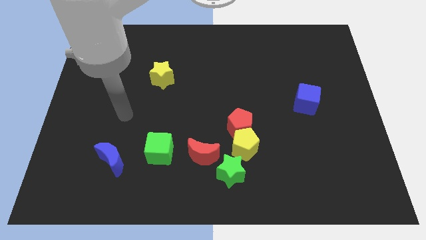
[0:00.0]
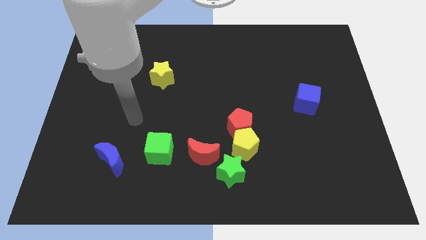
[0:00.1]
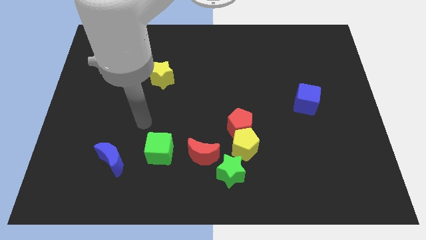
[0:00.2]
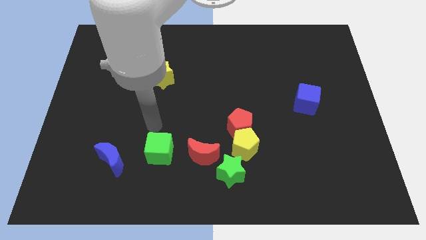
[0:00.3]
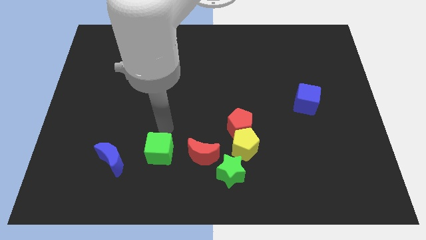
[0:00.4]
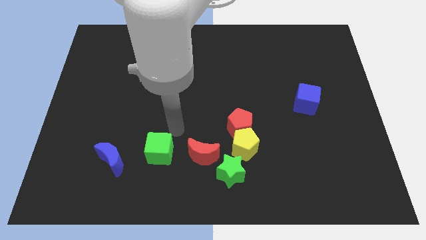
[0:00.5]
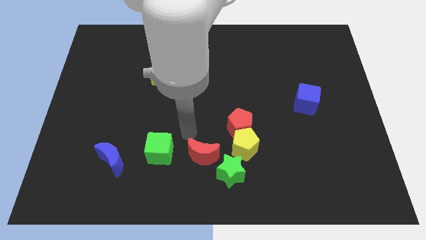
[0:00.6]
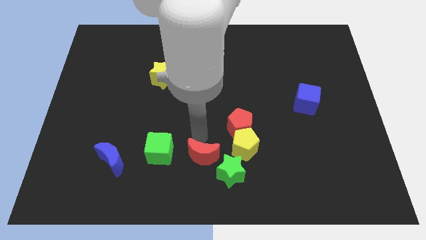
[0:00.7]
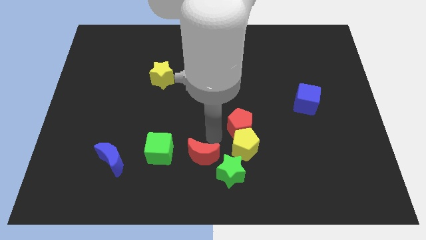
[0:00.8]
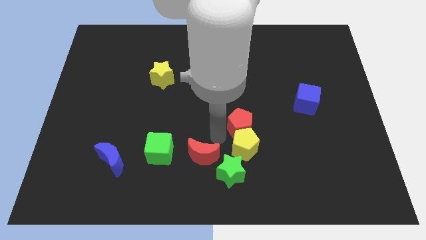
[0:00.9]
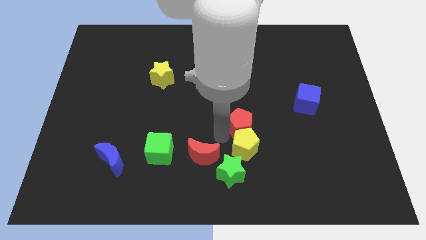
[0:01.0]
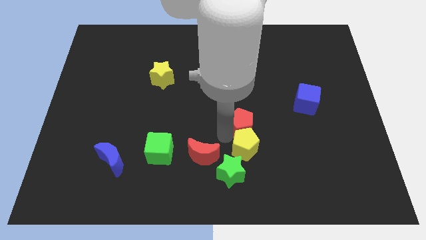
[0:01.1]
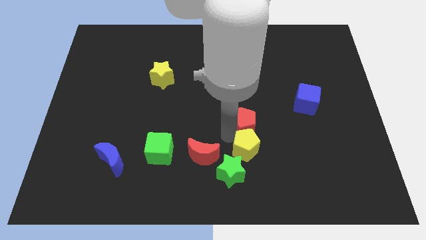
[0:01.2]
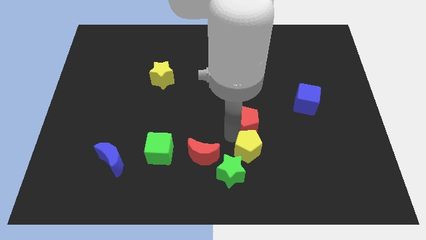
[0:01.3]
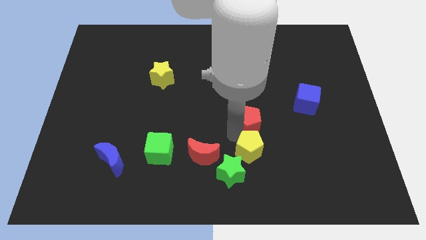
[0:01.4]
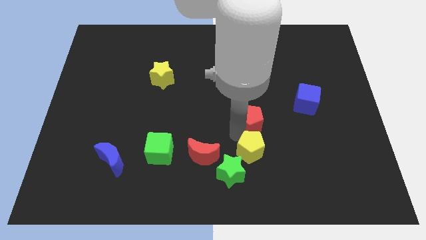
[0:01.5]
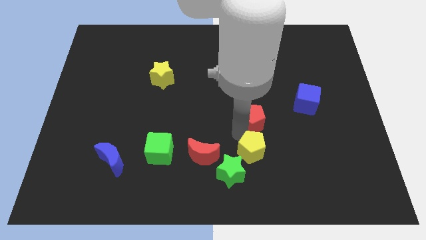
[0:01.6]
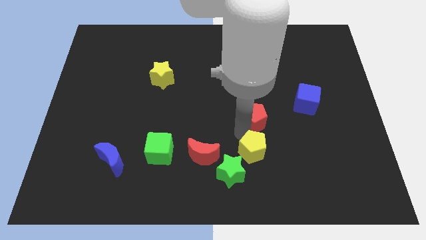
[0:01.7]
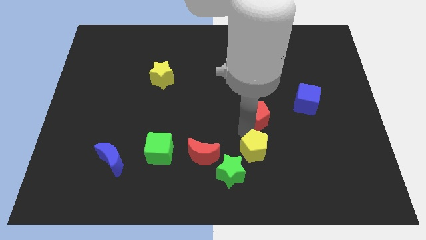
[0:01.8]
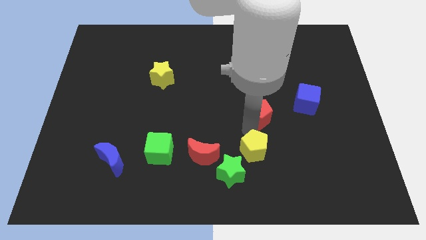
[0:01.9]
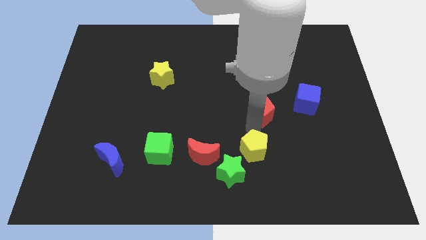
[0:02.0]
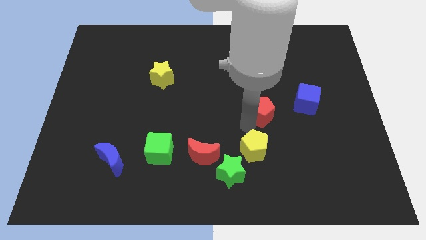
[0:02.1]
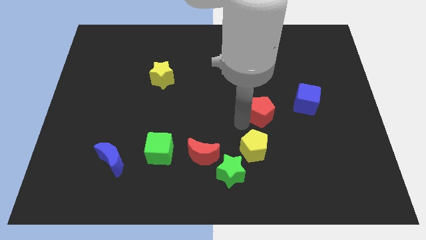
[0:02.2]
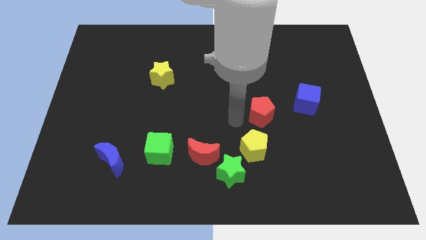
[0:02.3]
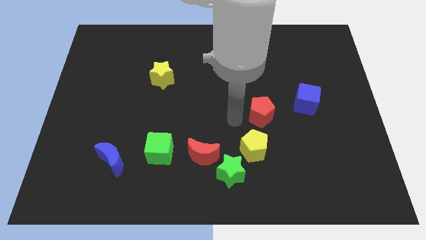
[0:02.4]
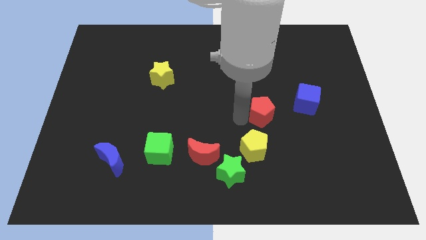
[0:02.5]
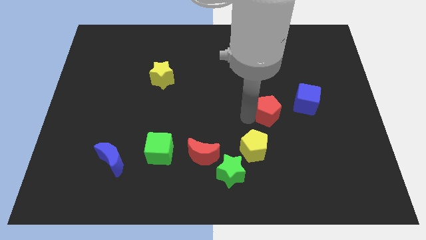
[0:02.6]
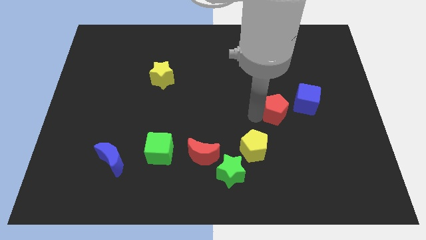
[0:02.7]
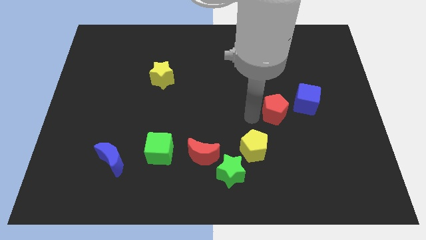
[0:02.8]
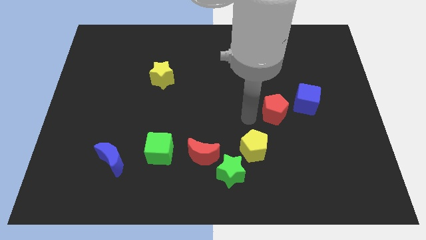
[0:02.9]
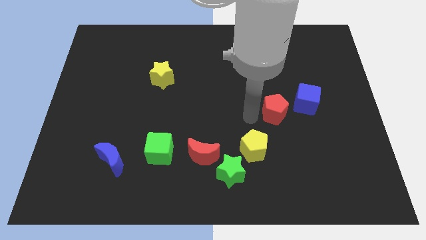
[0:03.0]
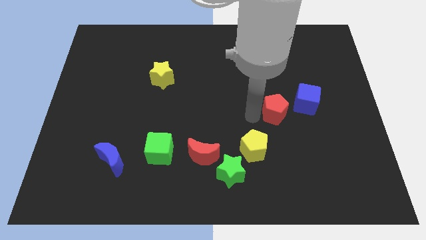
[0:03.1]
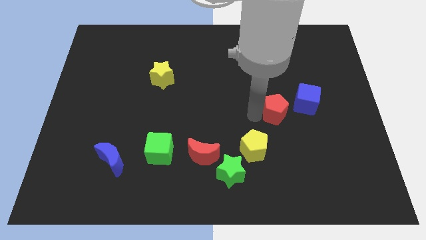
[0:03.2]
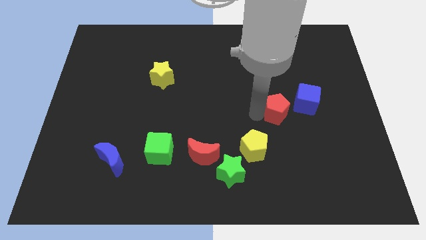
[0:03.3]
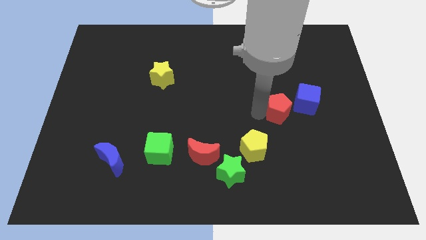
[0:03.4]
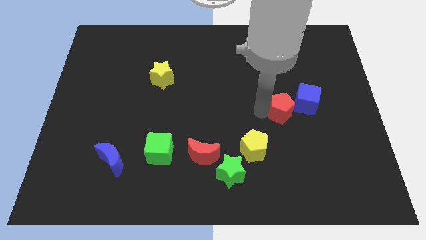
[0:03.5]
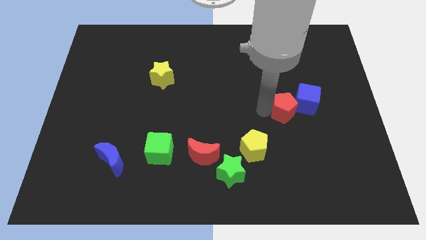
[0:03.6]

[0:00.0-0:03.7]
put the red pentagon close to the blue cube

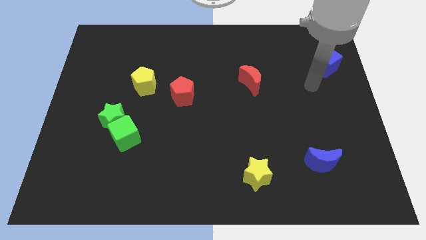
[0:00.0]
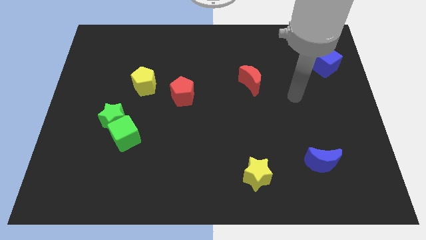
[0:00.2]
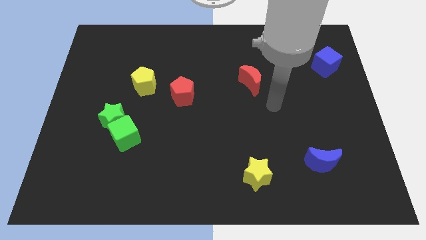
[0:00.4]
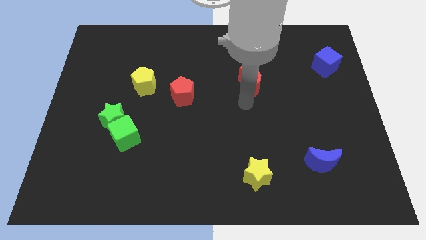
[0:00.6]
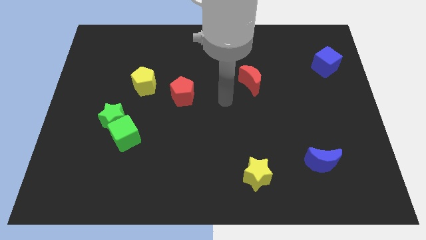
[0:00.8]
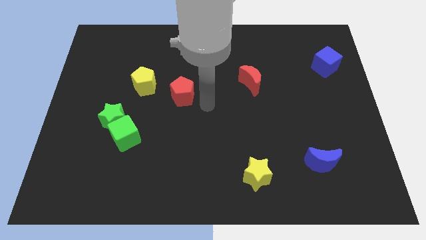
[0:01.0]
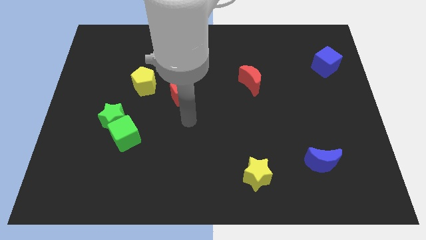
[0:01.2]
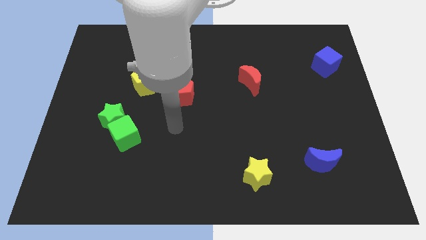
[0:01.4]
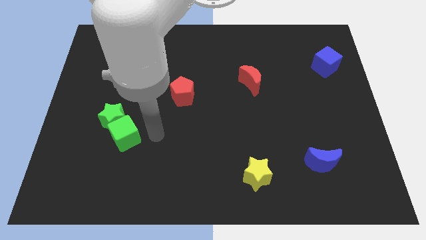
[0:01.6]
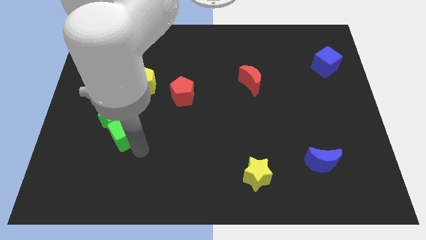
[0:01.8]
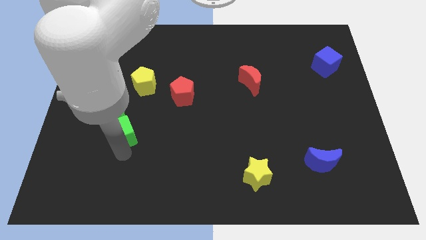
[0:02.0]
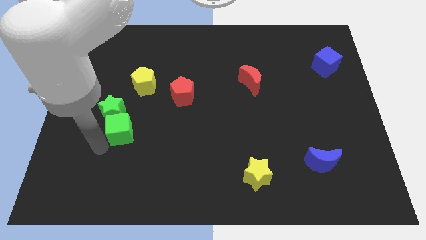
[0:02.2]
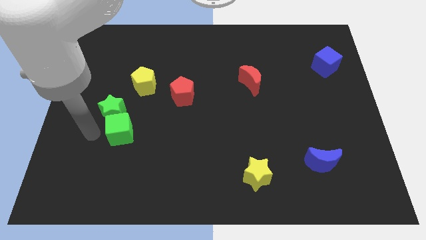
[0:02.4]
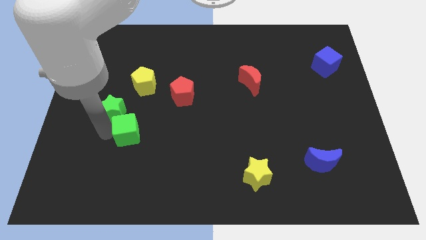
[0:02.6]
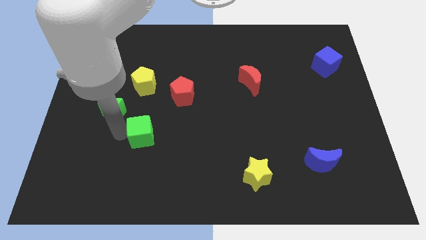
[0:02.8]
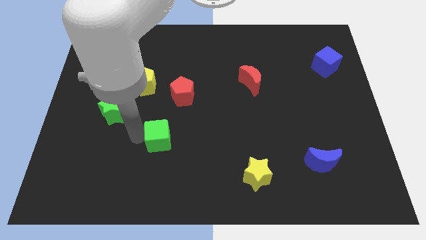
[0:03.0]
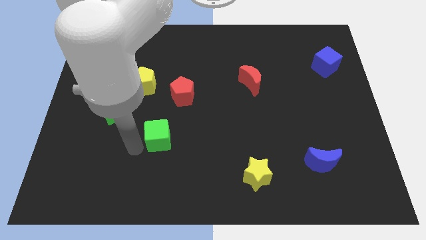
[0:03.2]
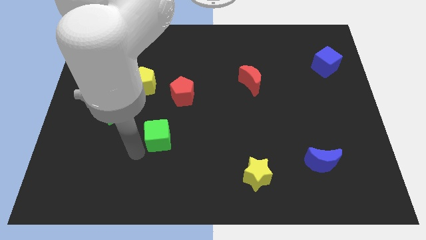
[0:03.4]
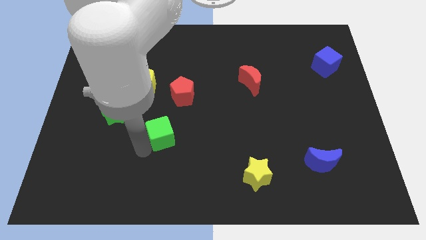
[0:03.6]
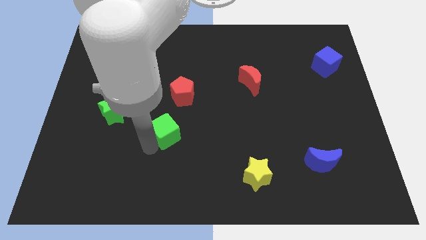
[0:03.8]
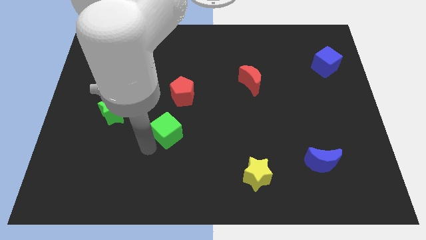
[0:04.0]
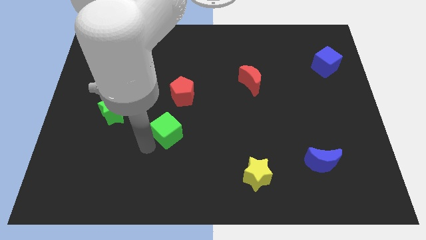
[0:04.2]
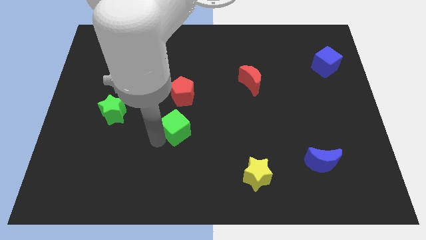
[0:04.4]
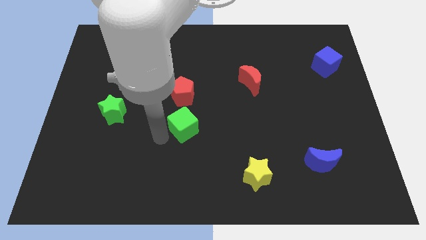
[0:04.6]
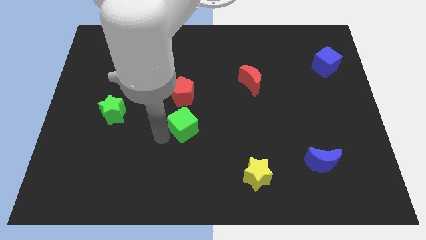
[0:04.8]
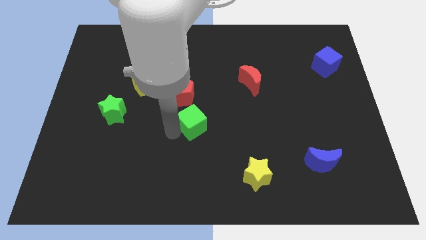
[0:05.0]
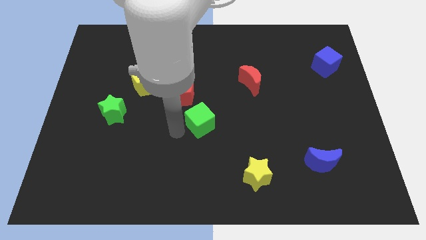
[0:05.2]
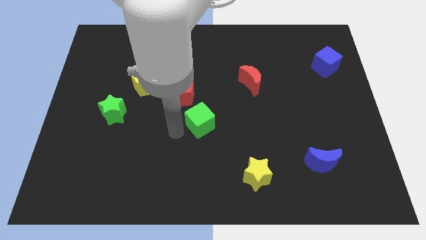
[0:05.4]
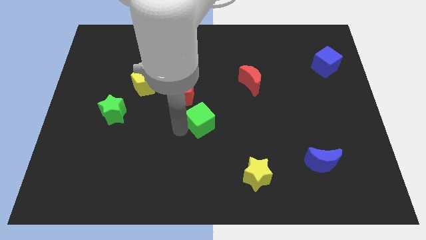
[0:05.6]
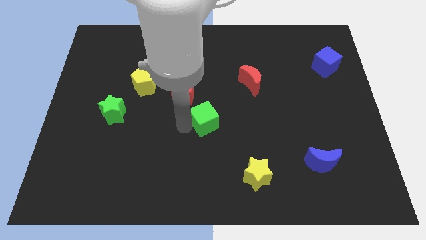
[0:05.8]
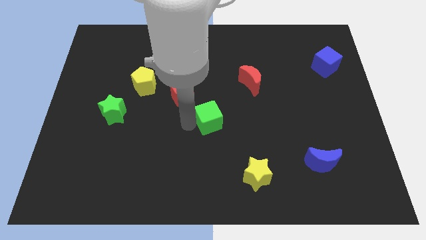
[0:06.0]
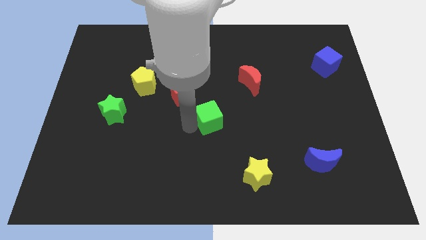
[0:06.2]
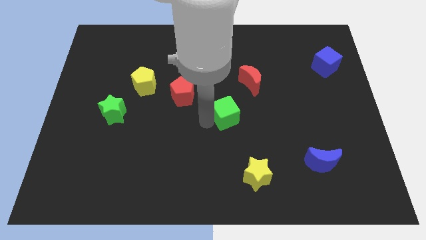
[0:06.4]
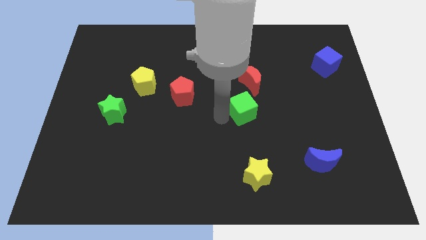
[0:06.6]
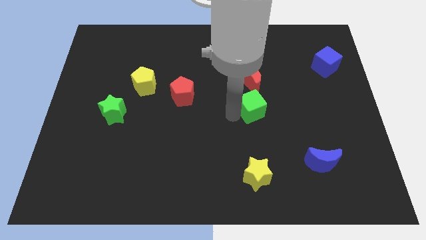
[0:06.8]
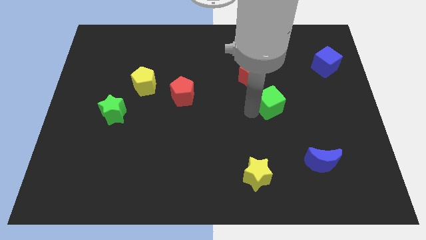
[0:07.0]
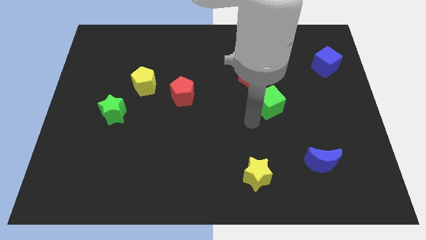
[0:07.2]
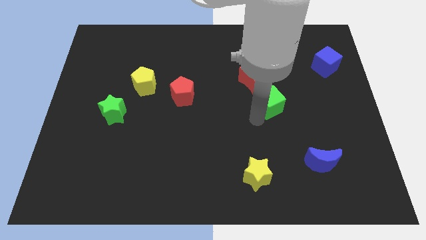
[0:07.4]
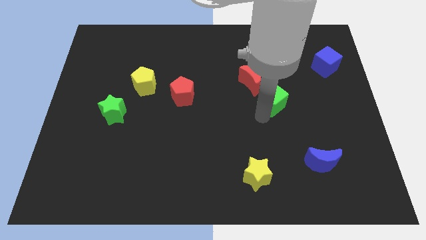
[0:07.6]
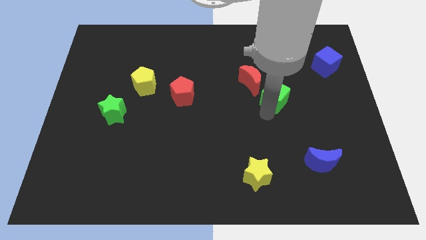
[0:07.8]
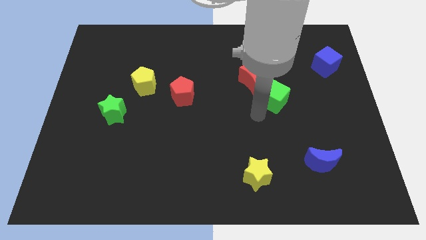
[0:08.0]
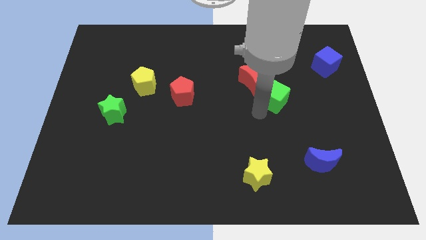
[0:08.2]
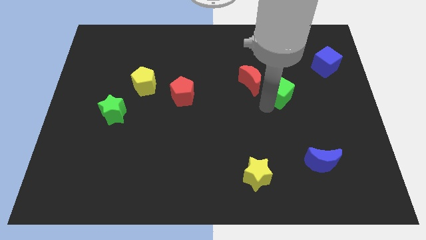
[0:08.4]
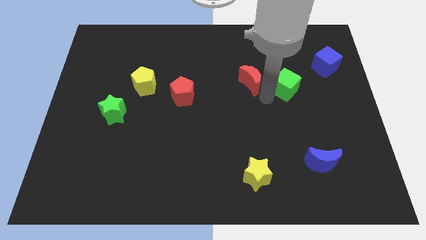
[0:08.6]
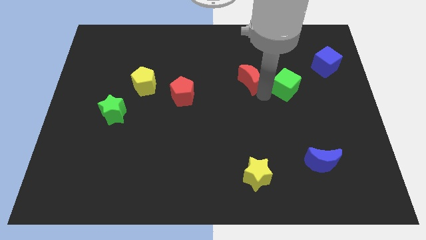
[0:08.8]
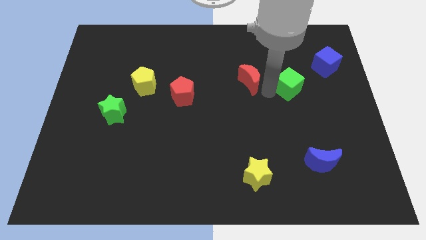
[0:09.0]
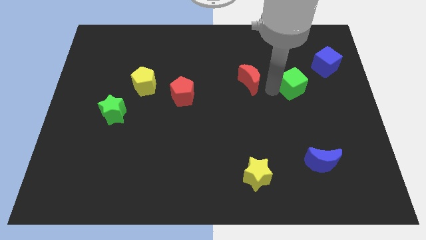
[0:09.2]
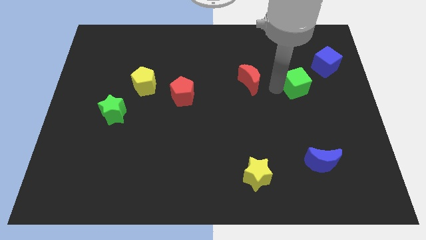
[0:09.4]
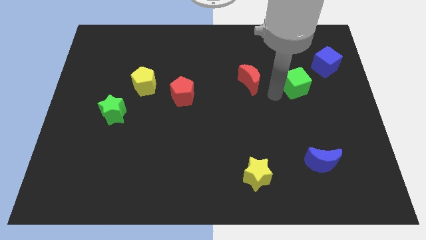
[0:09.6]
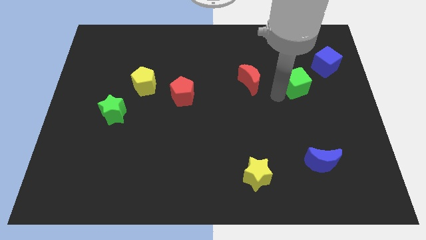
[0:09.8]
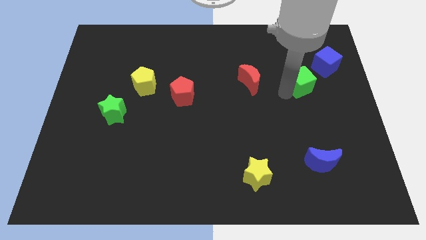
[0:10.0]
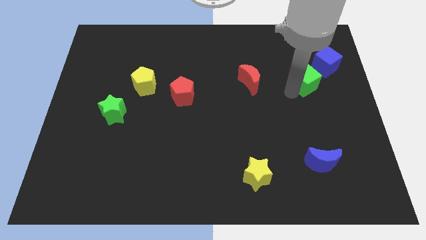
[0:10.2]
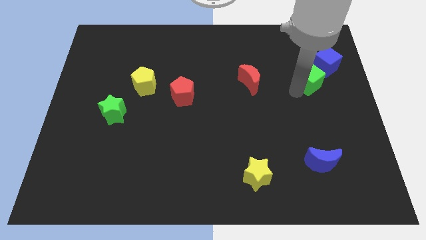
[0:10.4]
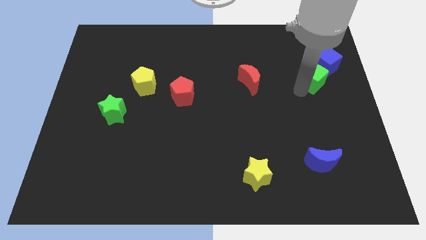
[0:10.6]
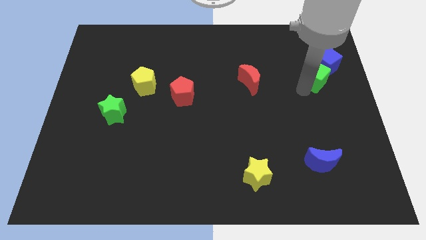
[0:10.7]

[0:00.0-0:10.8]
push the green cube towards the blue cube
